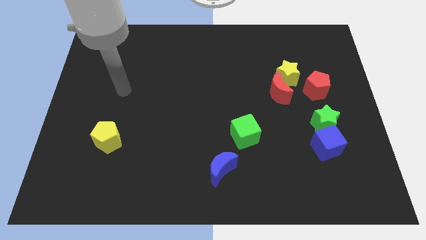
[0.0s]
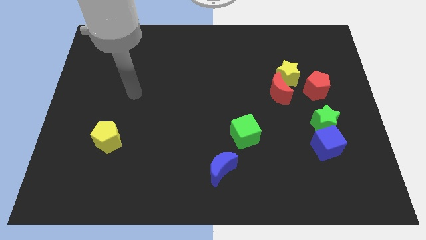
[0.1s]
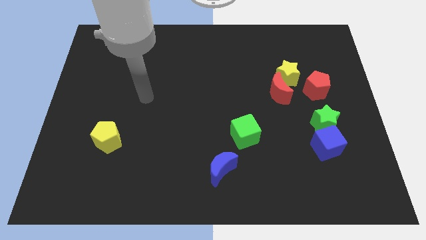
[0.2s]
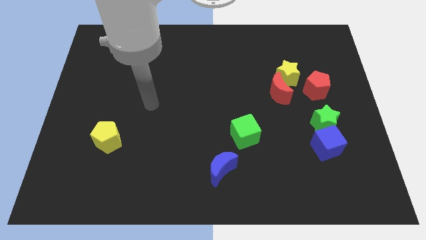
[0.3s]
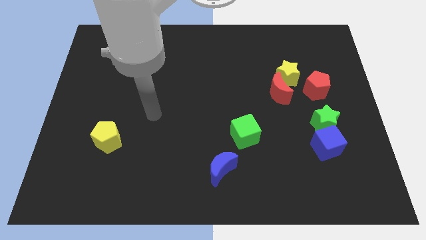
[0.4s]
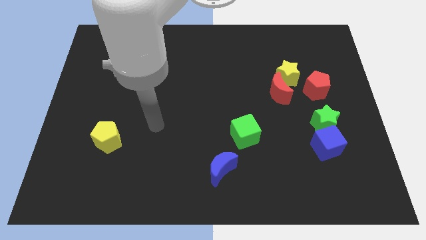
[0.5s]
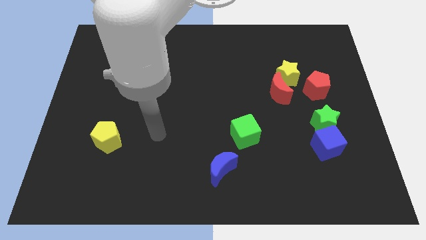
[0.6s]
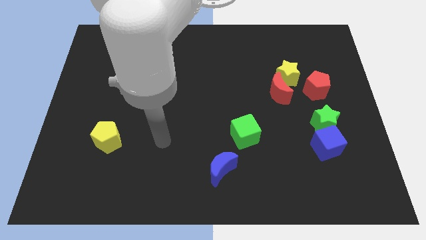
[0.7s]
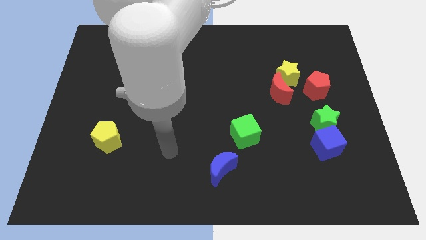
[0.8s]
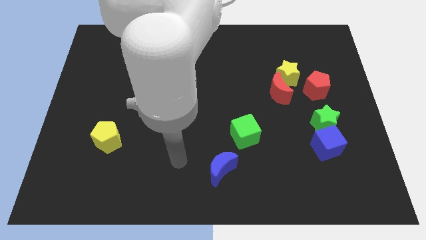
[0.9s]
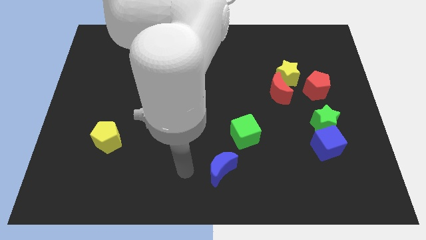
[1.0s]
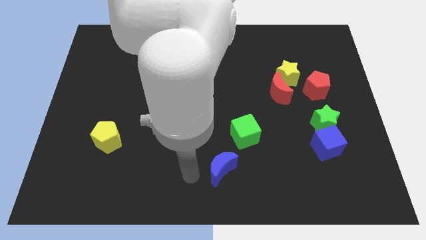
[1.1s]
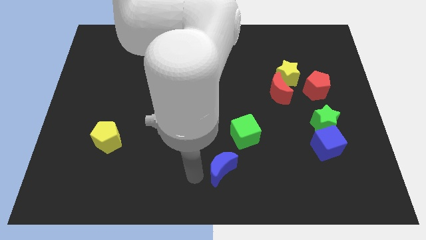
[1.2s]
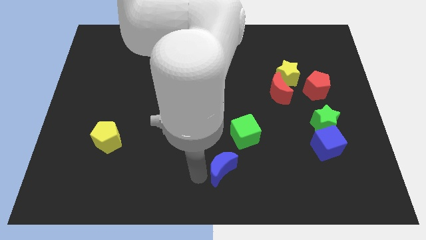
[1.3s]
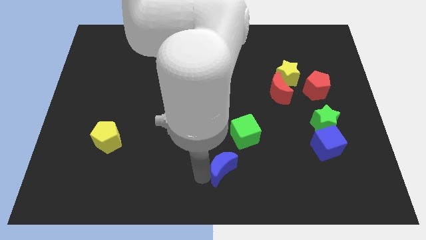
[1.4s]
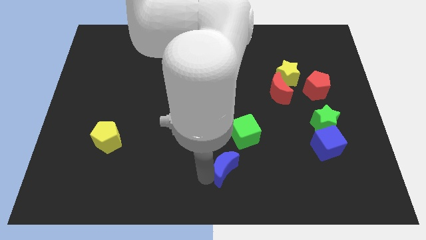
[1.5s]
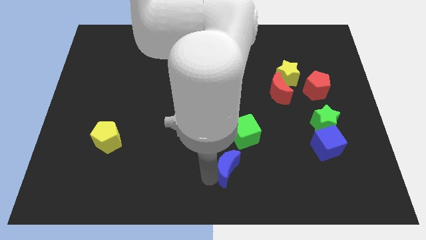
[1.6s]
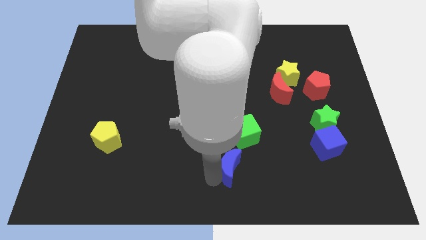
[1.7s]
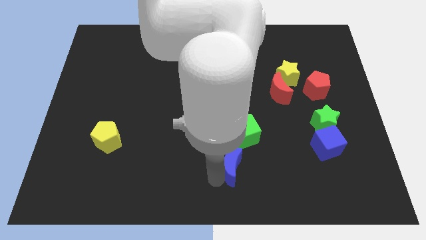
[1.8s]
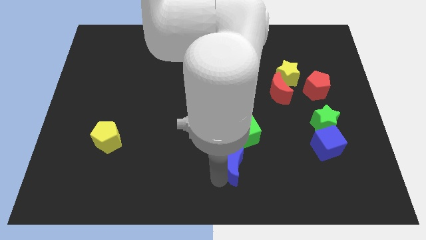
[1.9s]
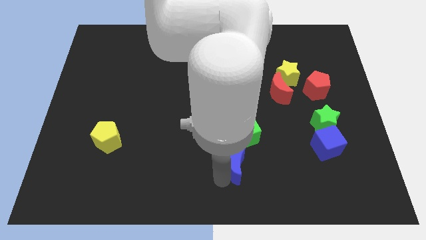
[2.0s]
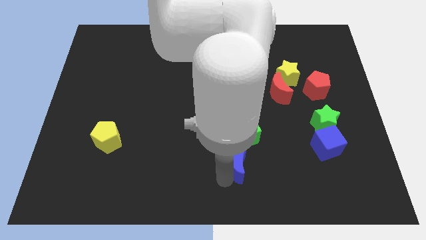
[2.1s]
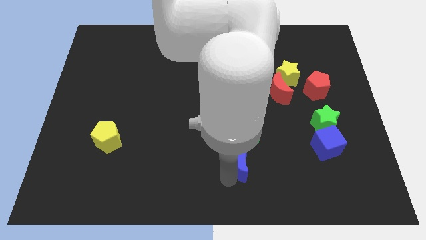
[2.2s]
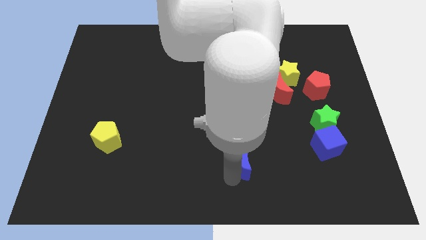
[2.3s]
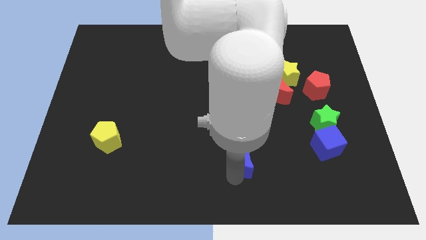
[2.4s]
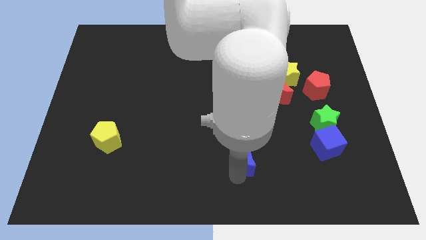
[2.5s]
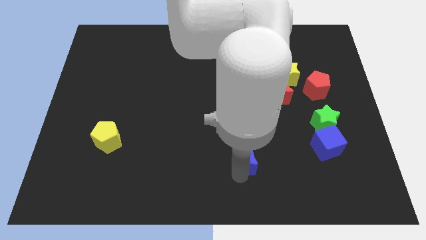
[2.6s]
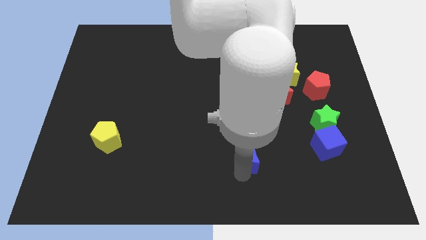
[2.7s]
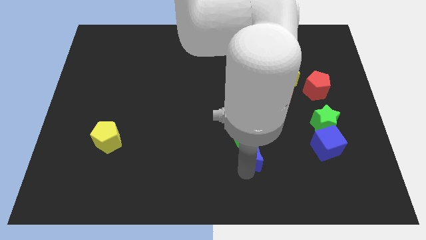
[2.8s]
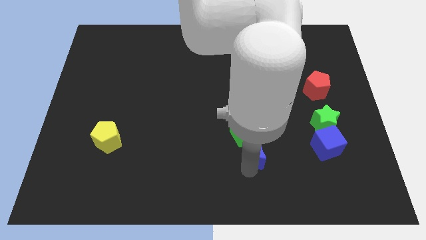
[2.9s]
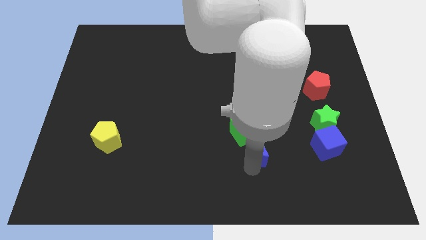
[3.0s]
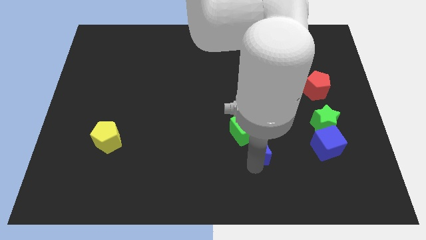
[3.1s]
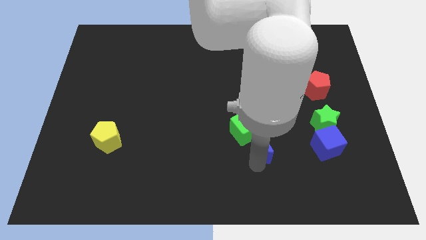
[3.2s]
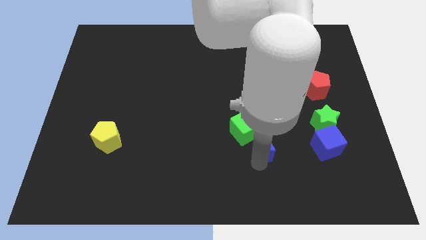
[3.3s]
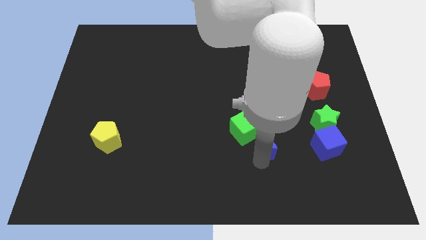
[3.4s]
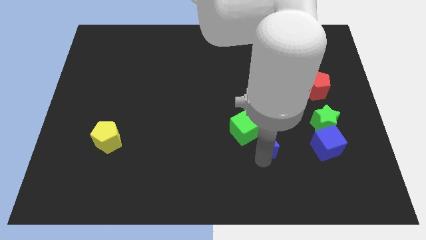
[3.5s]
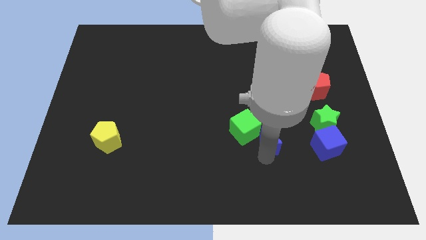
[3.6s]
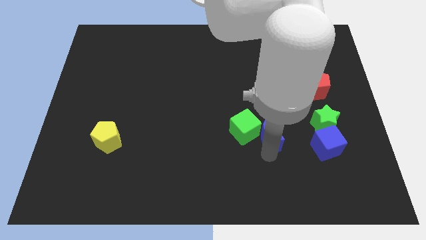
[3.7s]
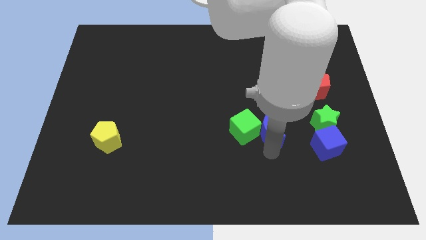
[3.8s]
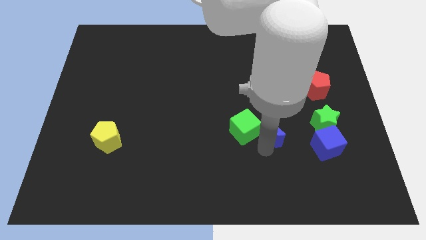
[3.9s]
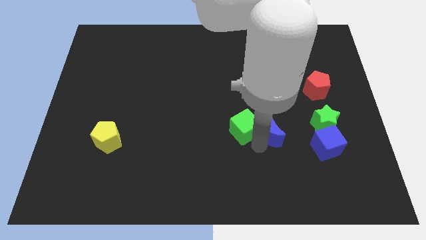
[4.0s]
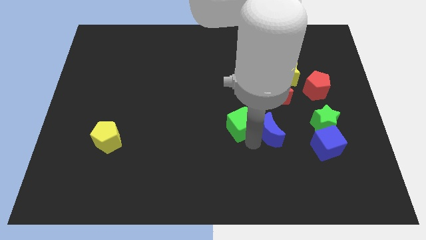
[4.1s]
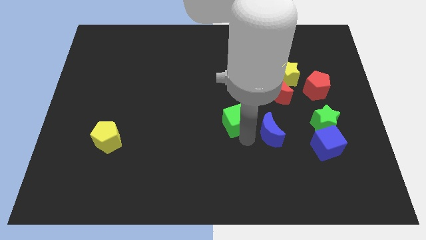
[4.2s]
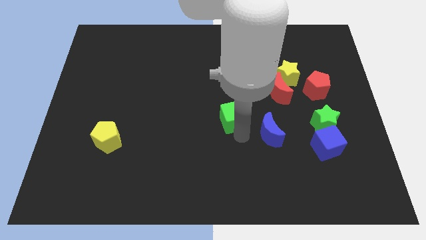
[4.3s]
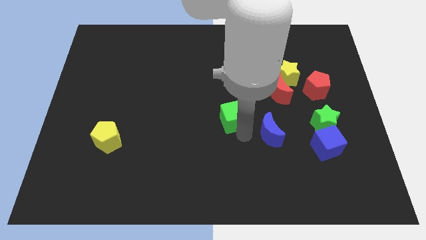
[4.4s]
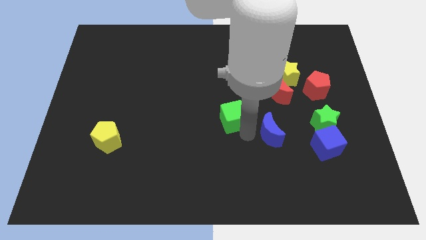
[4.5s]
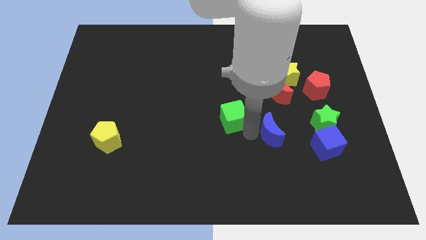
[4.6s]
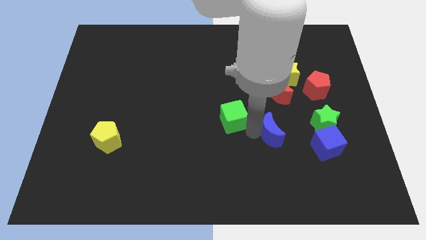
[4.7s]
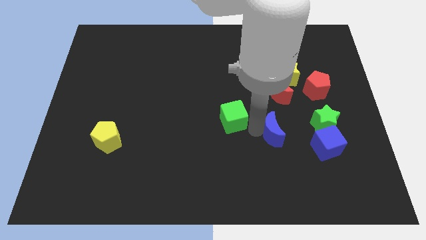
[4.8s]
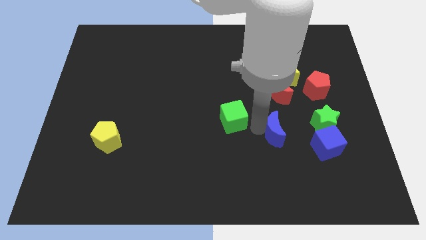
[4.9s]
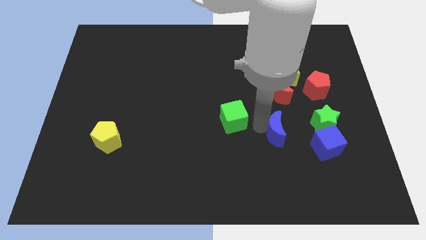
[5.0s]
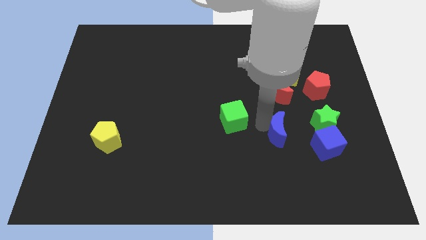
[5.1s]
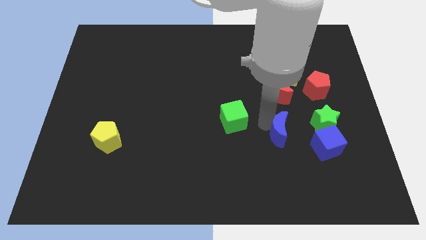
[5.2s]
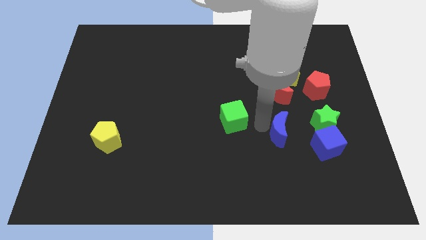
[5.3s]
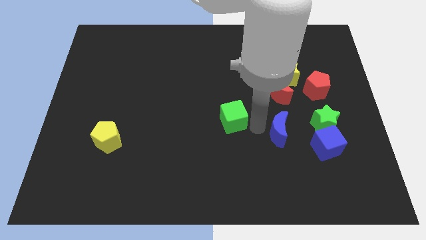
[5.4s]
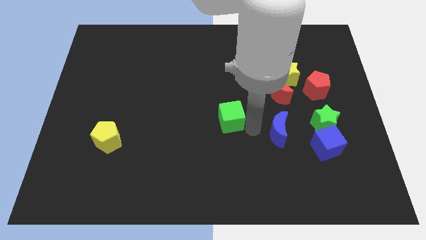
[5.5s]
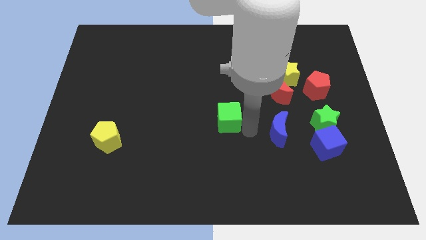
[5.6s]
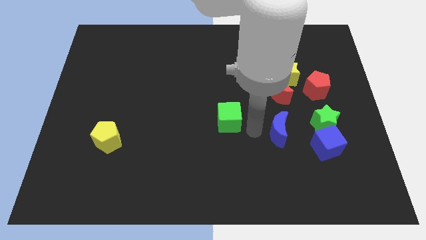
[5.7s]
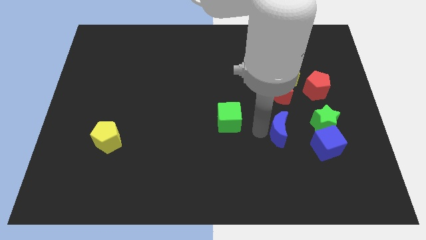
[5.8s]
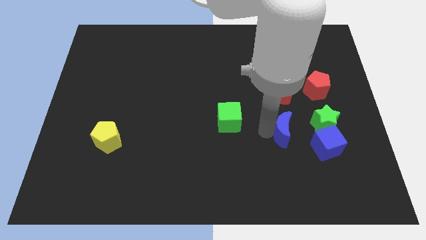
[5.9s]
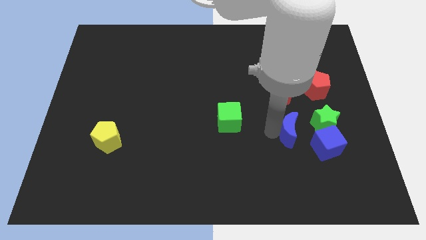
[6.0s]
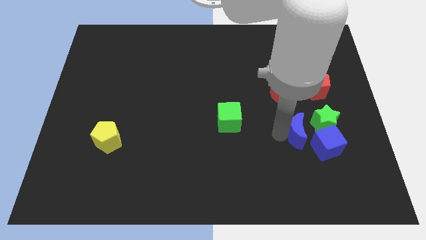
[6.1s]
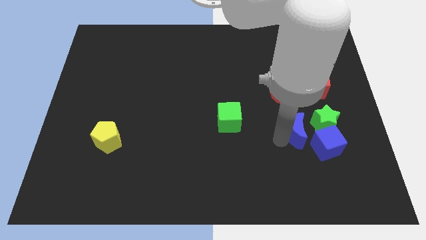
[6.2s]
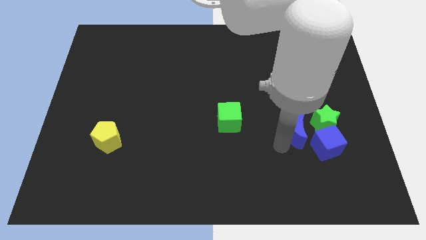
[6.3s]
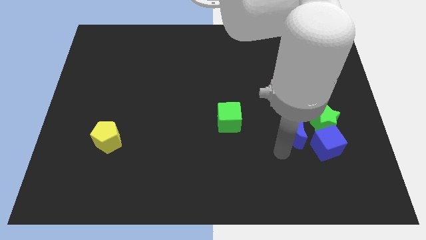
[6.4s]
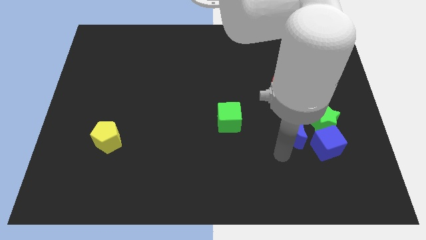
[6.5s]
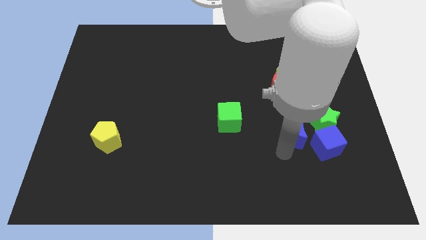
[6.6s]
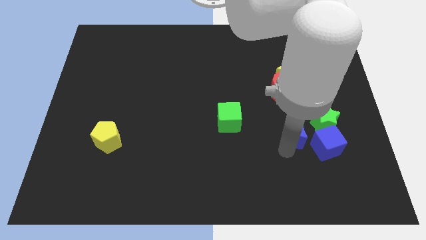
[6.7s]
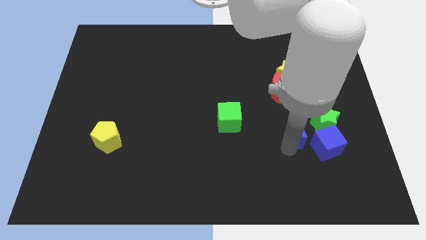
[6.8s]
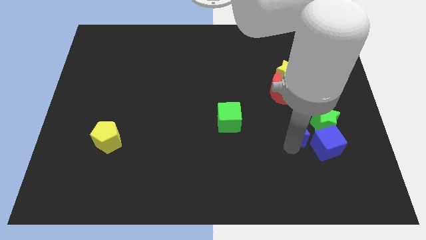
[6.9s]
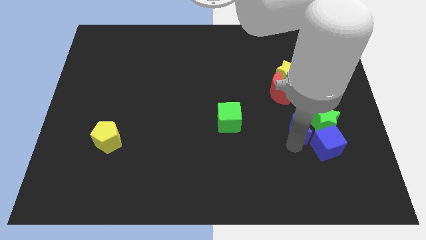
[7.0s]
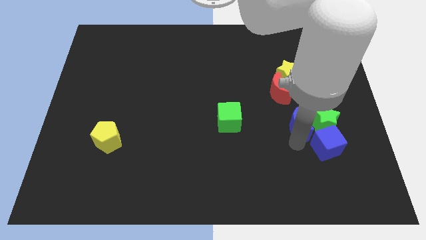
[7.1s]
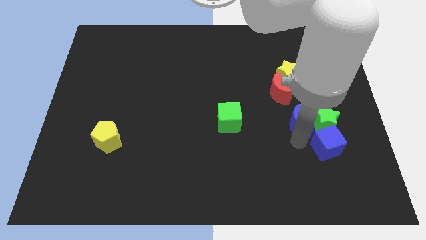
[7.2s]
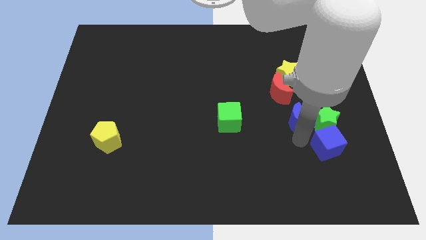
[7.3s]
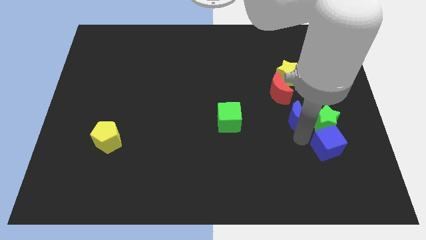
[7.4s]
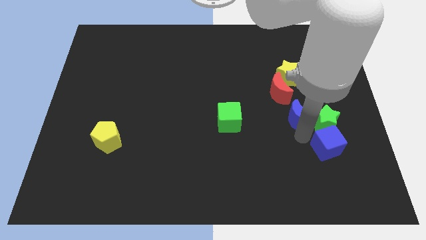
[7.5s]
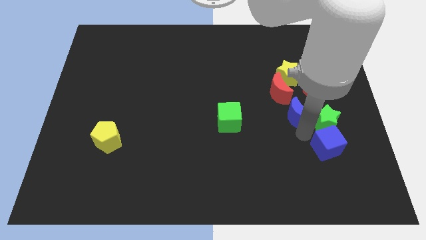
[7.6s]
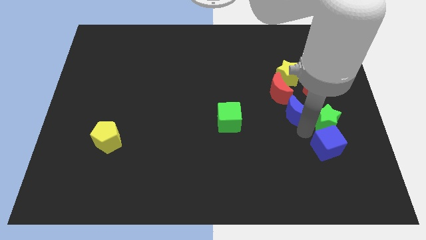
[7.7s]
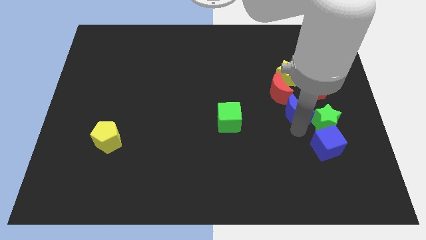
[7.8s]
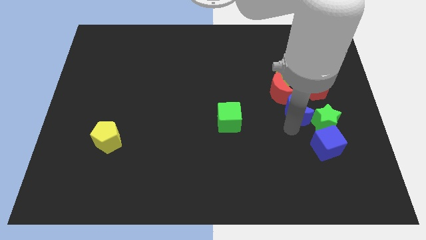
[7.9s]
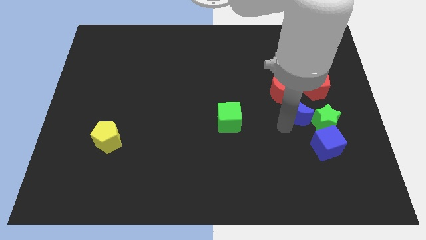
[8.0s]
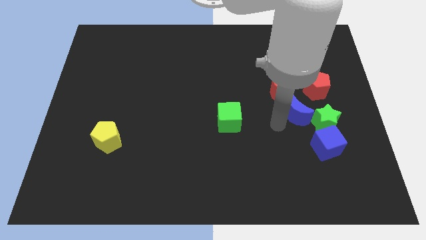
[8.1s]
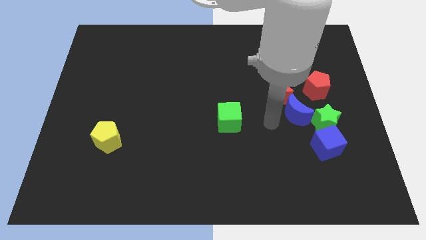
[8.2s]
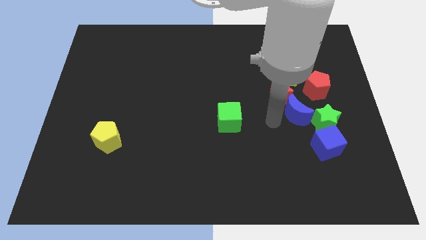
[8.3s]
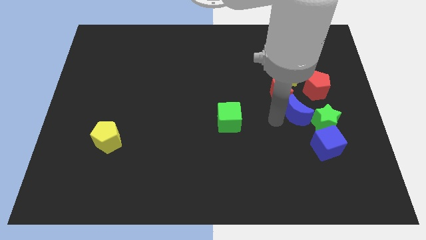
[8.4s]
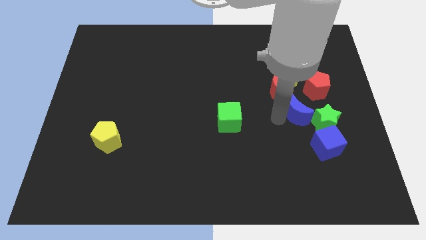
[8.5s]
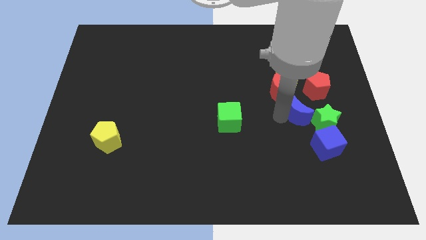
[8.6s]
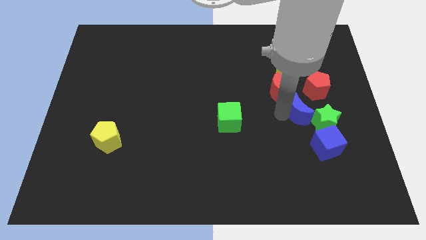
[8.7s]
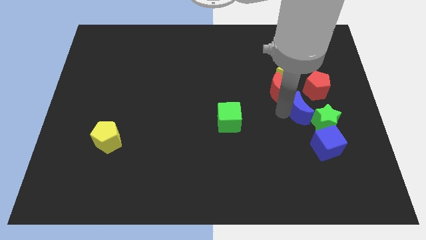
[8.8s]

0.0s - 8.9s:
slide the blue moon to the top of the blue cube

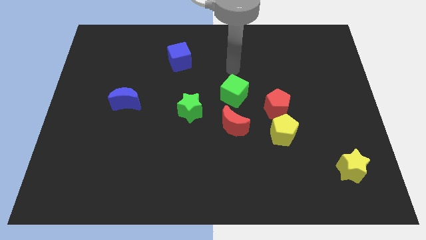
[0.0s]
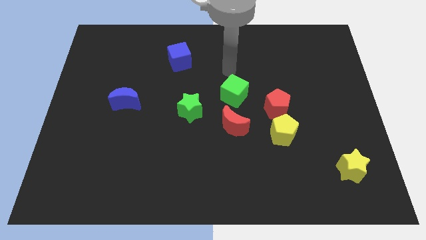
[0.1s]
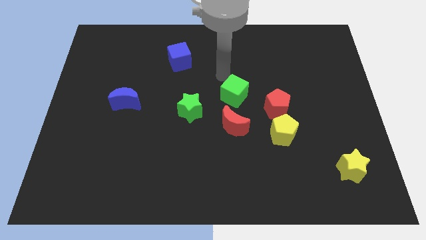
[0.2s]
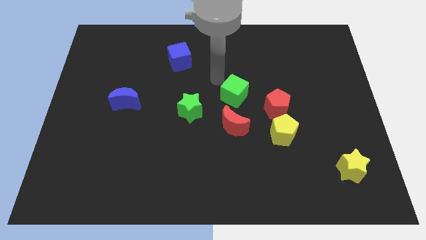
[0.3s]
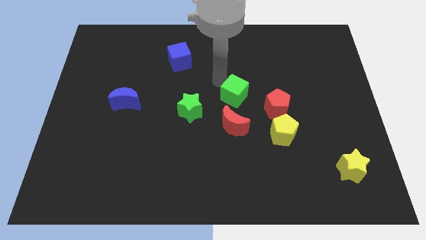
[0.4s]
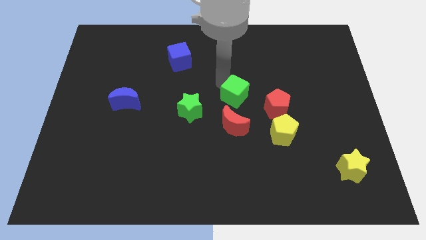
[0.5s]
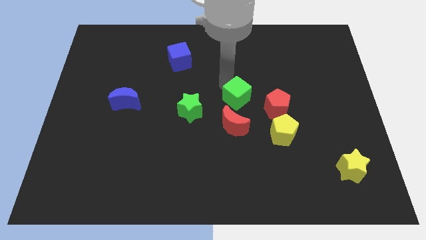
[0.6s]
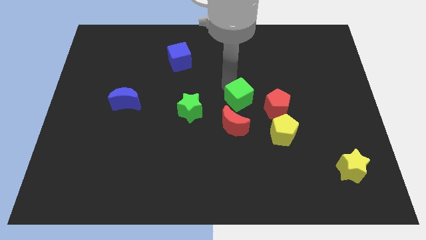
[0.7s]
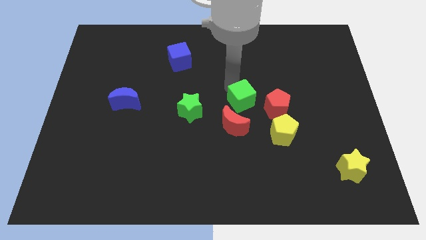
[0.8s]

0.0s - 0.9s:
move the green cube to the top left of the yellow pentagon
